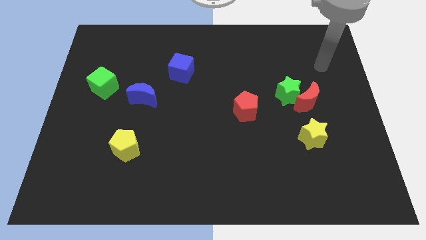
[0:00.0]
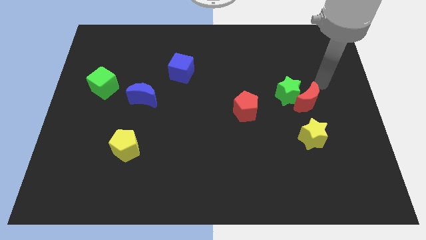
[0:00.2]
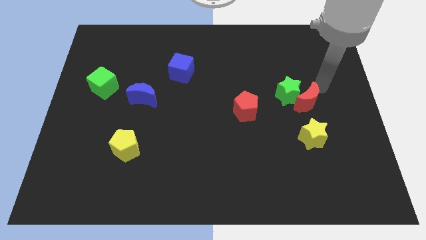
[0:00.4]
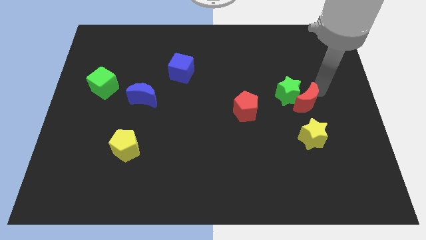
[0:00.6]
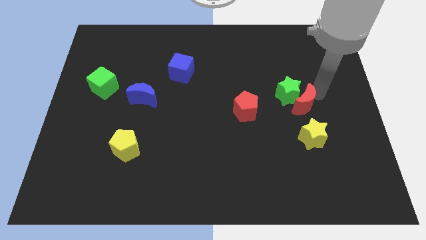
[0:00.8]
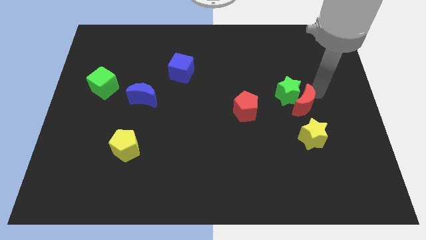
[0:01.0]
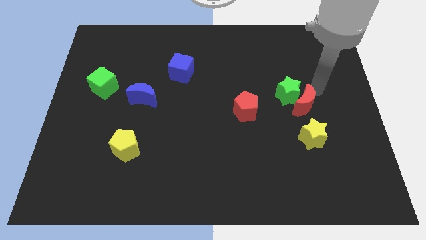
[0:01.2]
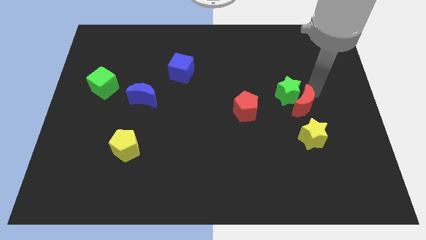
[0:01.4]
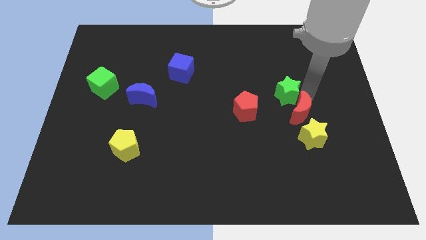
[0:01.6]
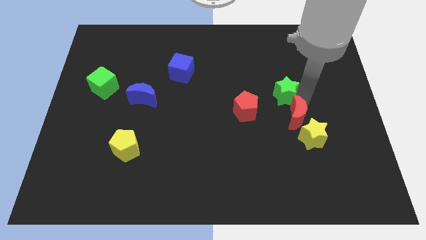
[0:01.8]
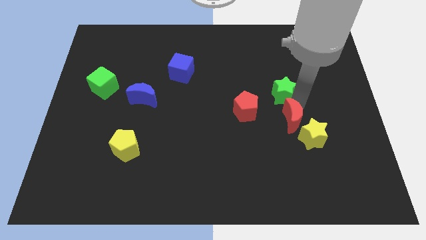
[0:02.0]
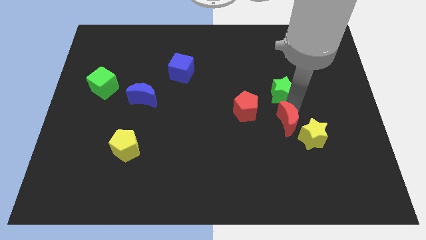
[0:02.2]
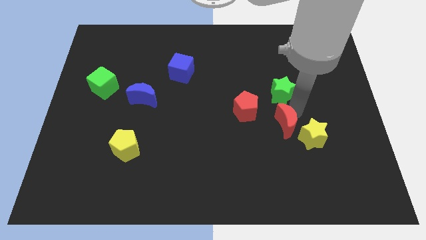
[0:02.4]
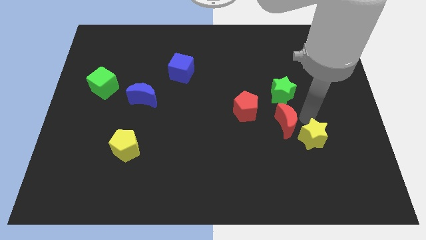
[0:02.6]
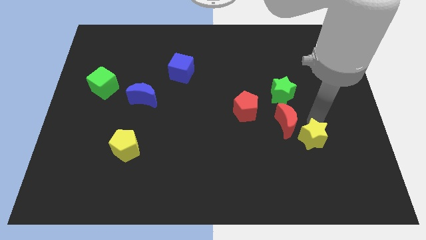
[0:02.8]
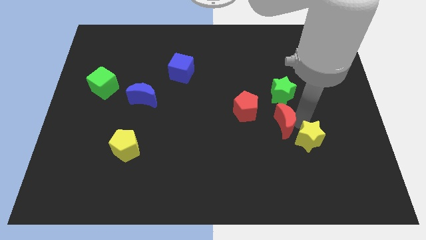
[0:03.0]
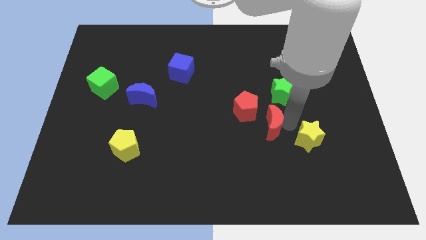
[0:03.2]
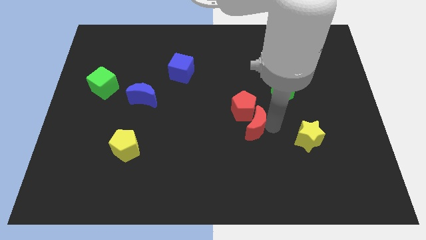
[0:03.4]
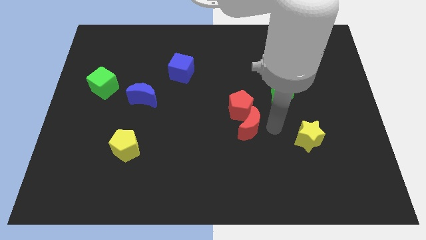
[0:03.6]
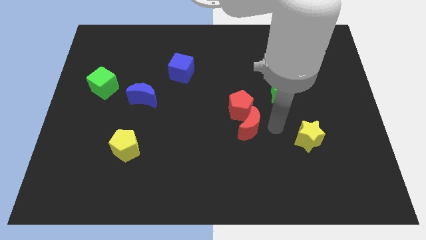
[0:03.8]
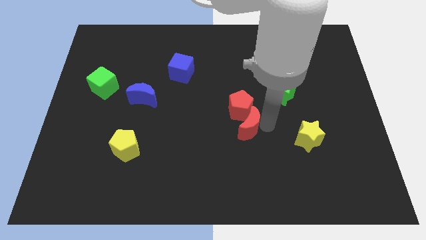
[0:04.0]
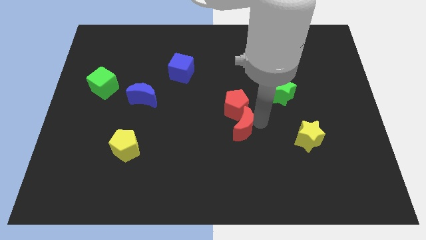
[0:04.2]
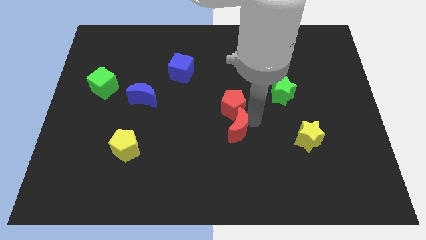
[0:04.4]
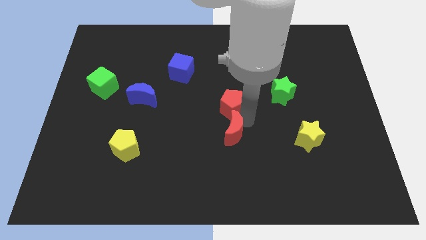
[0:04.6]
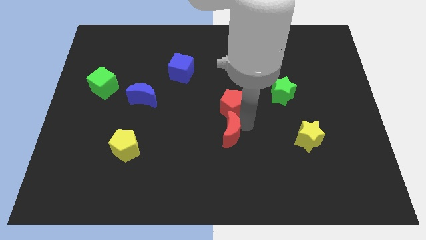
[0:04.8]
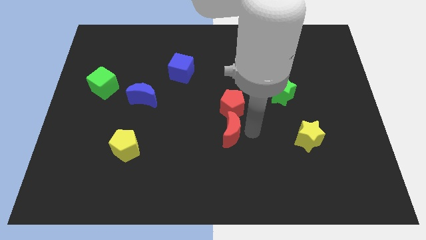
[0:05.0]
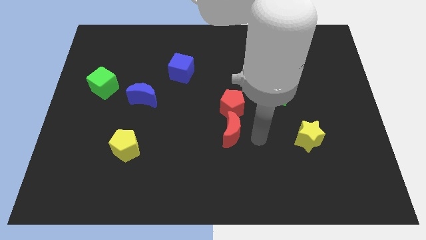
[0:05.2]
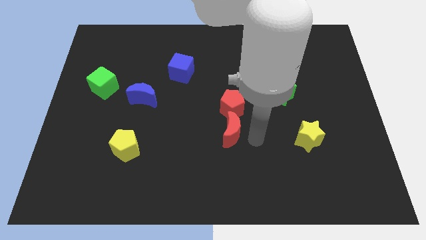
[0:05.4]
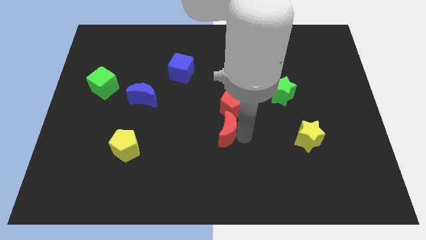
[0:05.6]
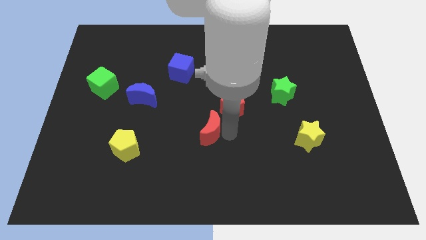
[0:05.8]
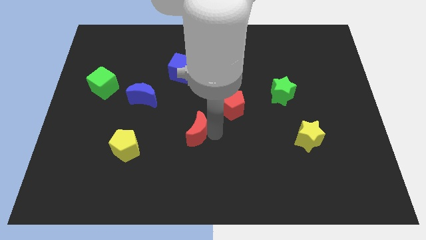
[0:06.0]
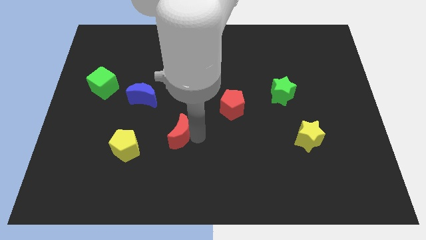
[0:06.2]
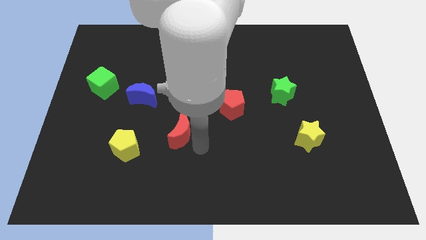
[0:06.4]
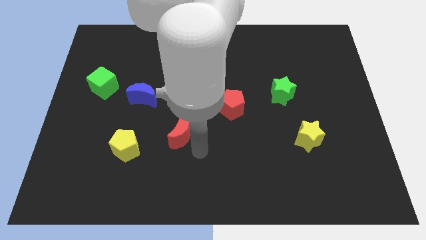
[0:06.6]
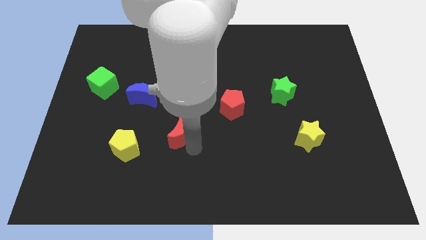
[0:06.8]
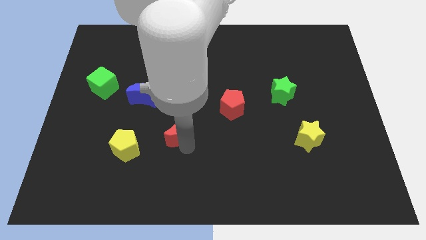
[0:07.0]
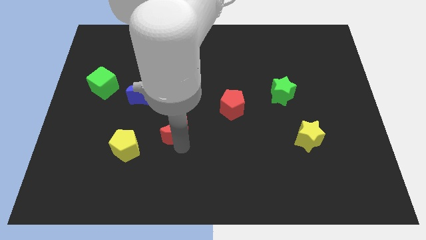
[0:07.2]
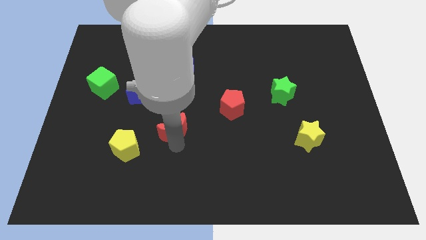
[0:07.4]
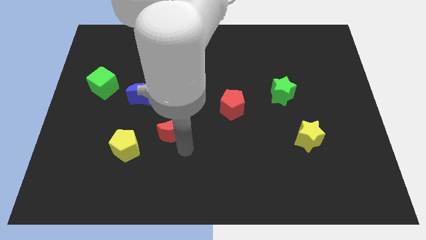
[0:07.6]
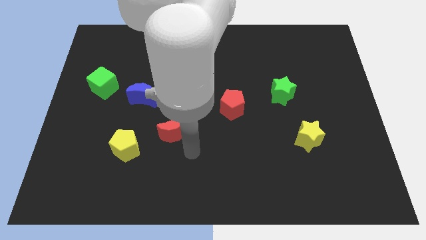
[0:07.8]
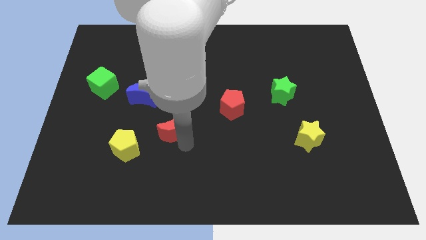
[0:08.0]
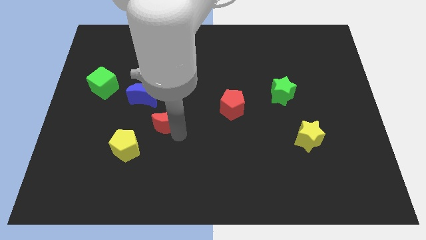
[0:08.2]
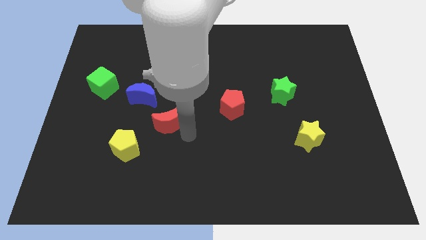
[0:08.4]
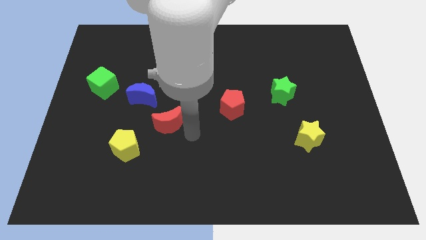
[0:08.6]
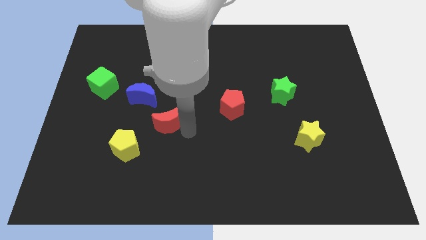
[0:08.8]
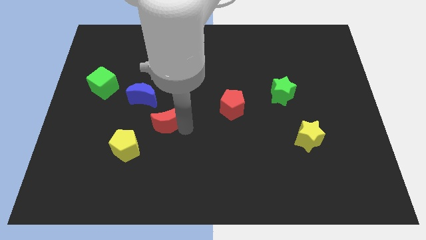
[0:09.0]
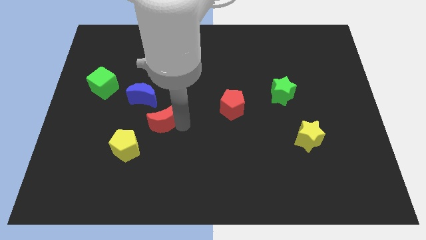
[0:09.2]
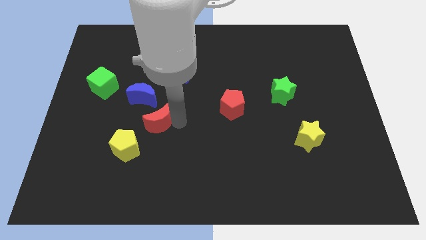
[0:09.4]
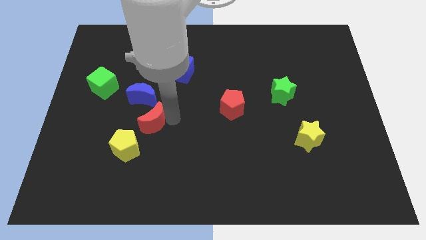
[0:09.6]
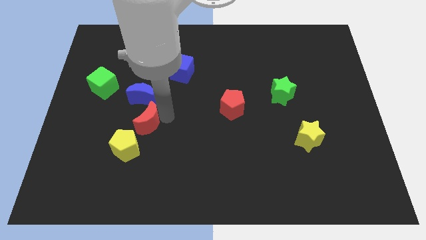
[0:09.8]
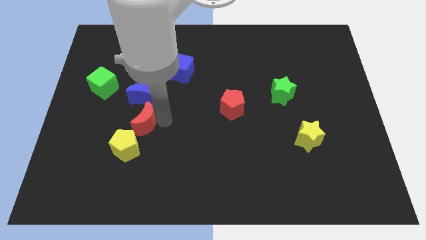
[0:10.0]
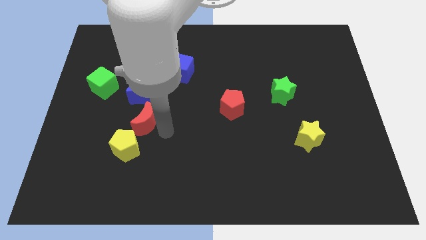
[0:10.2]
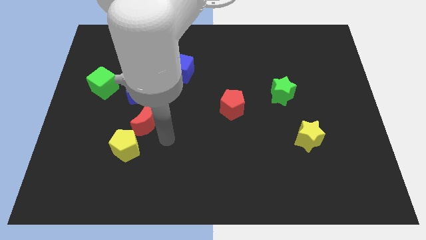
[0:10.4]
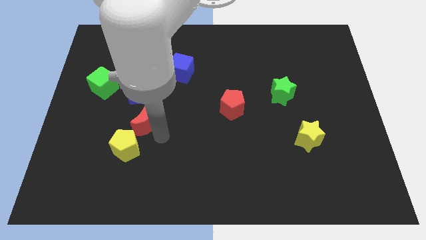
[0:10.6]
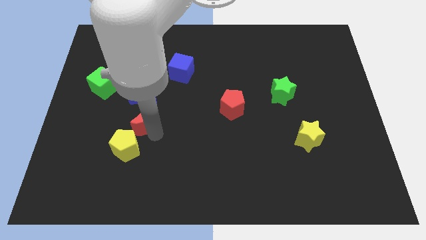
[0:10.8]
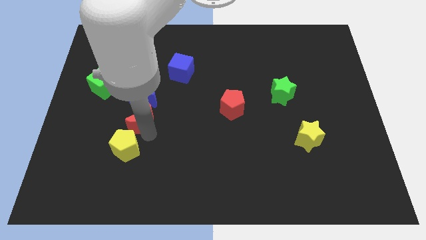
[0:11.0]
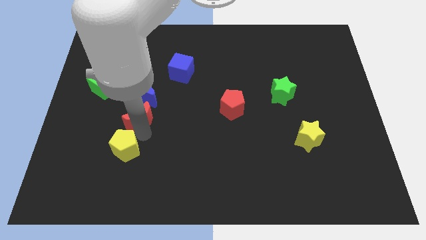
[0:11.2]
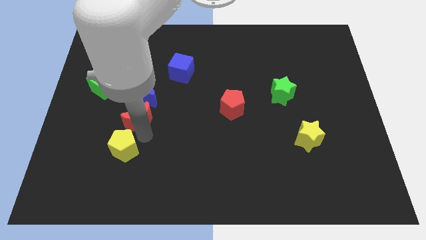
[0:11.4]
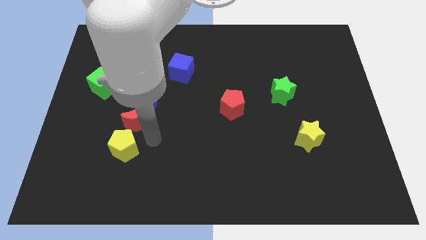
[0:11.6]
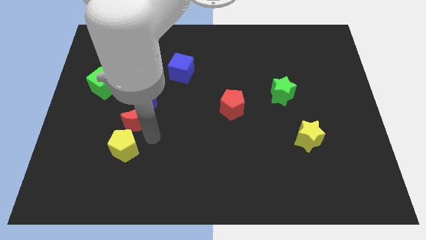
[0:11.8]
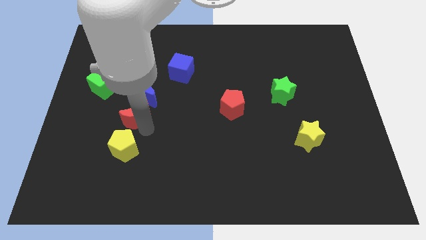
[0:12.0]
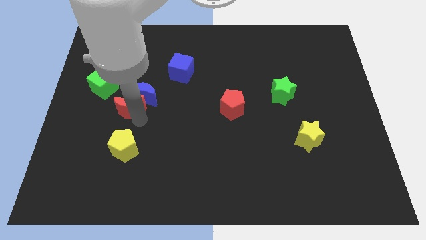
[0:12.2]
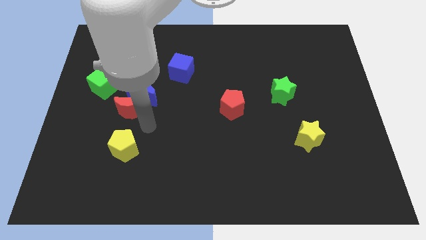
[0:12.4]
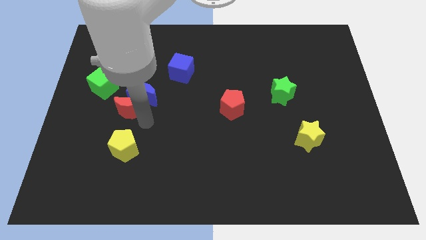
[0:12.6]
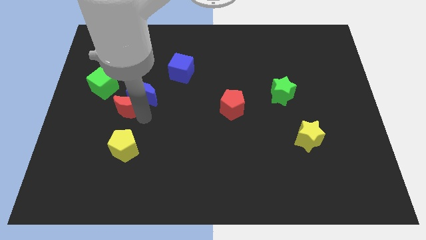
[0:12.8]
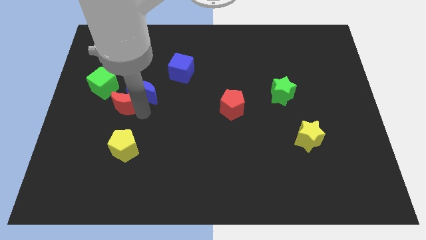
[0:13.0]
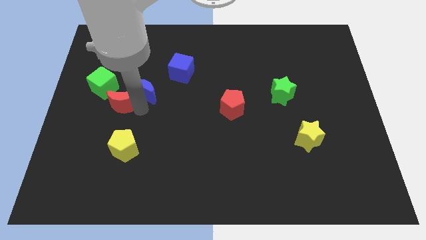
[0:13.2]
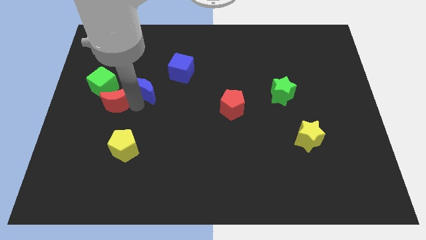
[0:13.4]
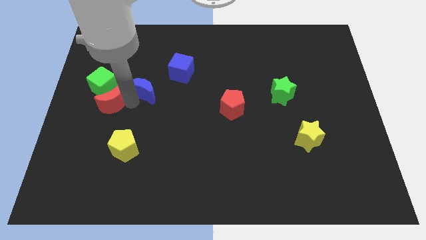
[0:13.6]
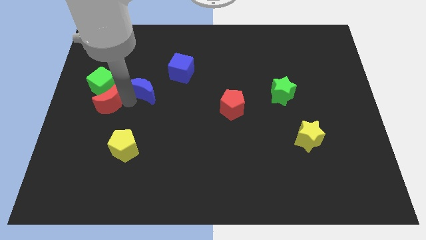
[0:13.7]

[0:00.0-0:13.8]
push the red moon next to the green cube

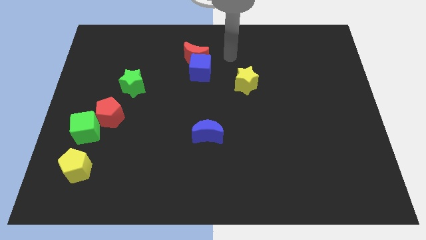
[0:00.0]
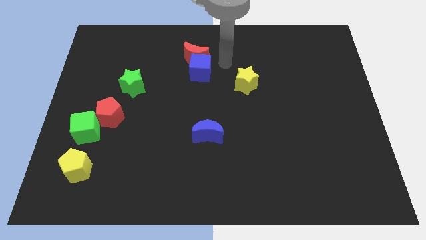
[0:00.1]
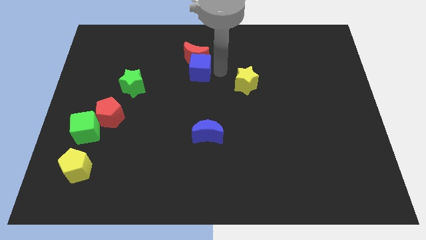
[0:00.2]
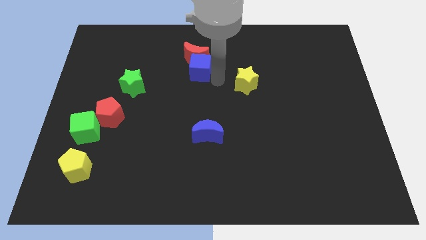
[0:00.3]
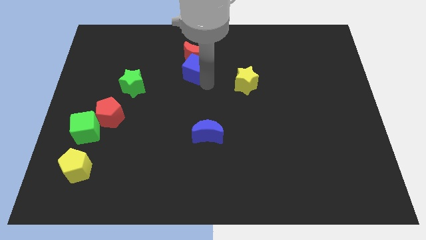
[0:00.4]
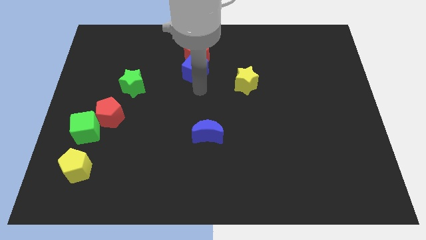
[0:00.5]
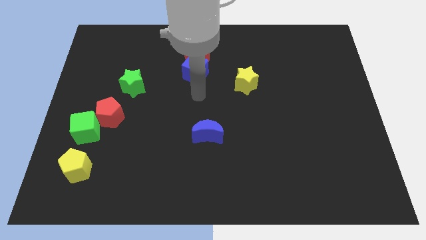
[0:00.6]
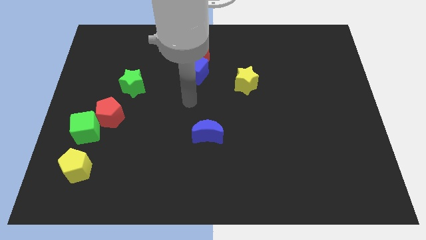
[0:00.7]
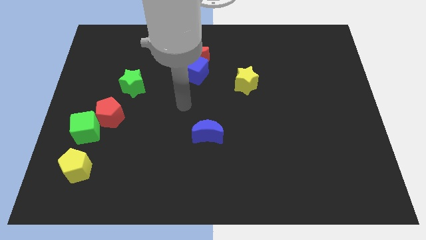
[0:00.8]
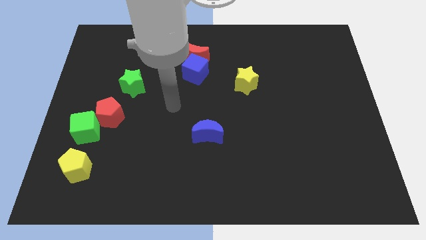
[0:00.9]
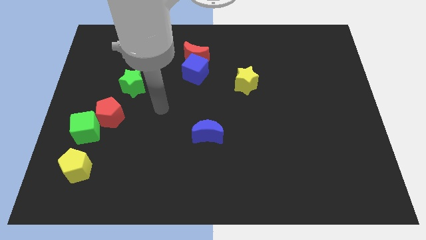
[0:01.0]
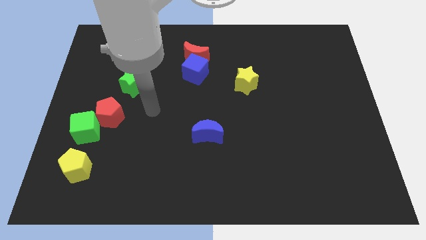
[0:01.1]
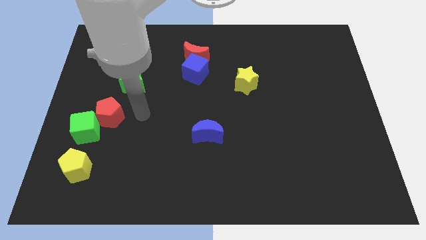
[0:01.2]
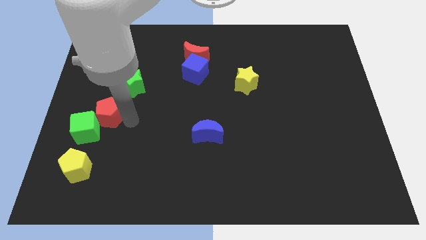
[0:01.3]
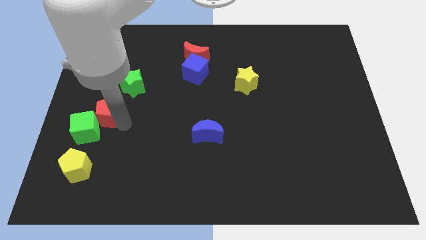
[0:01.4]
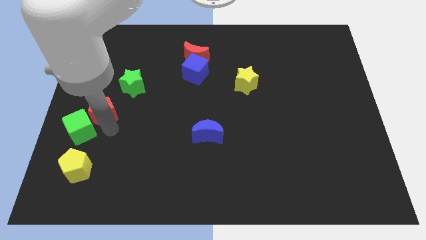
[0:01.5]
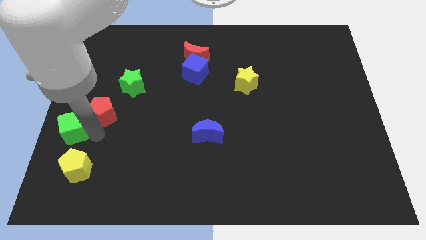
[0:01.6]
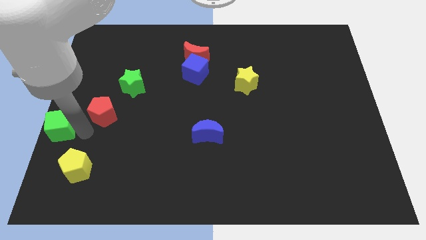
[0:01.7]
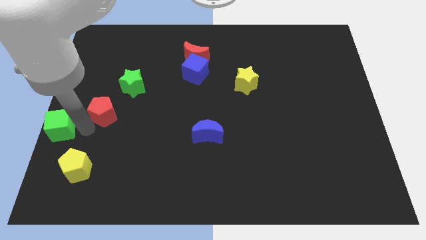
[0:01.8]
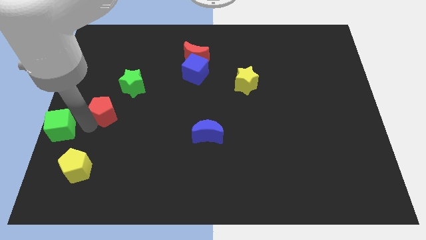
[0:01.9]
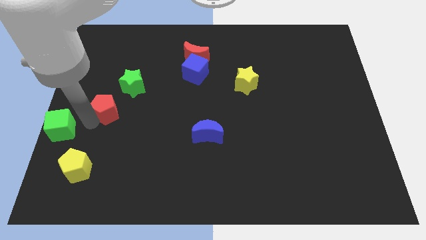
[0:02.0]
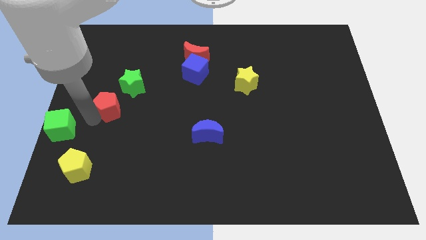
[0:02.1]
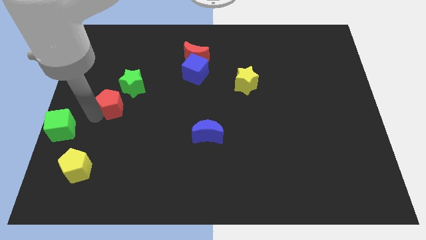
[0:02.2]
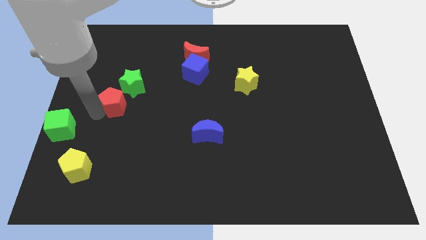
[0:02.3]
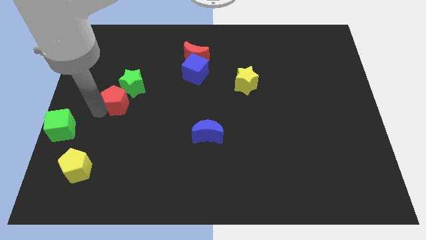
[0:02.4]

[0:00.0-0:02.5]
put the red pentagon to the green star
